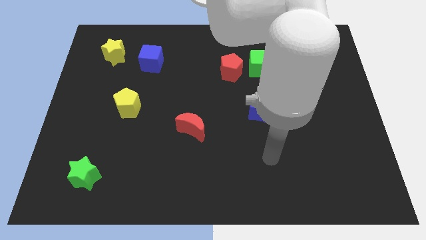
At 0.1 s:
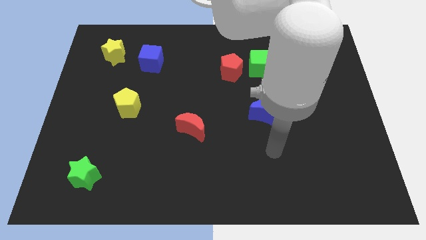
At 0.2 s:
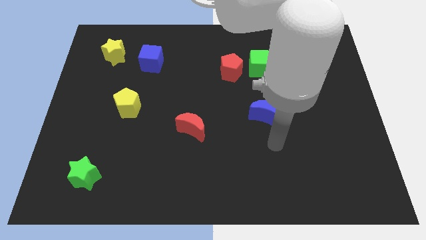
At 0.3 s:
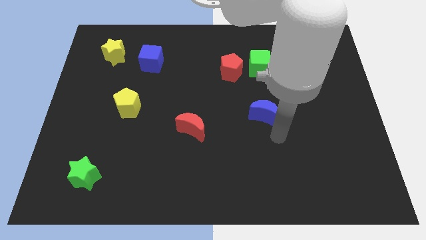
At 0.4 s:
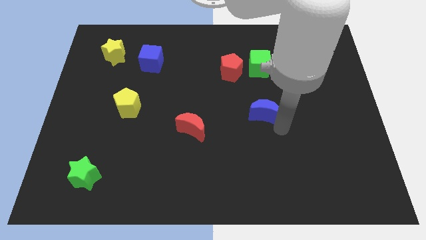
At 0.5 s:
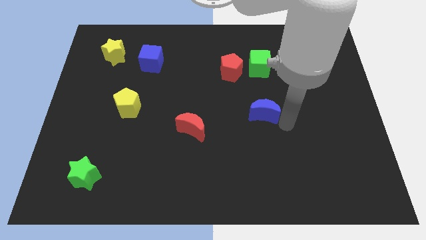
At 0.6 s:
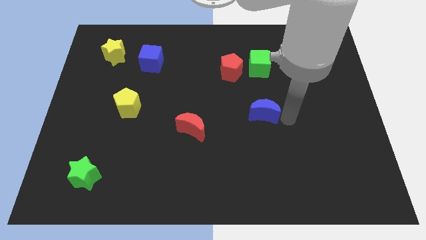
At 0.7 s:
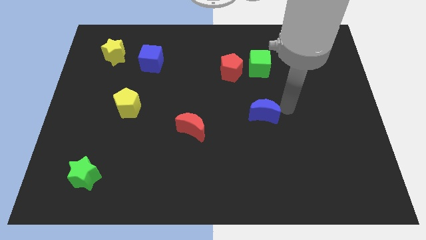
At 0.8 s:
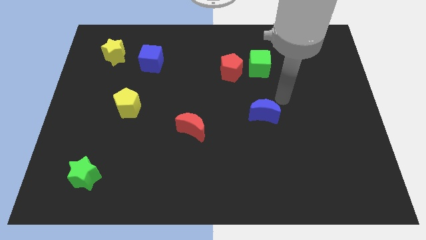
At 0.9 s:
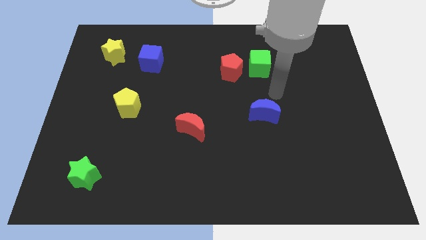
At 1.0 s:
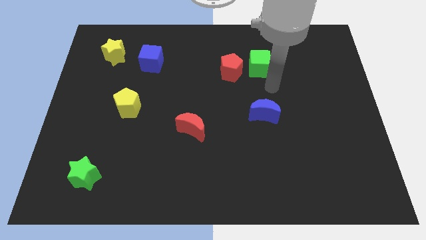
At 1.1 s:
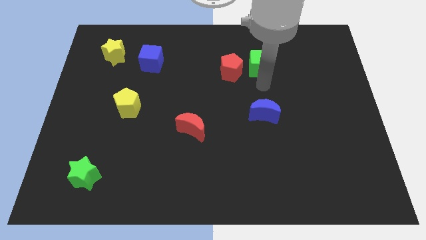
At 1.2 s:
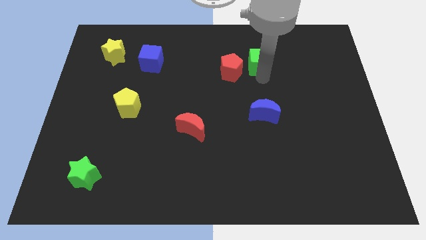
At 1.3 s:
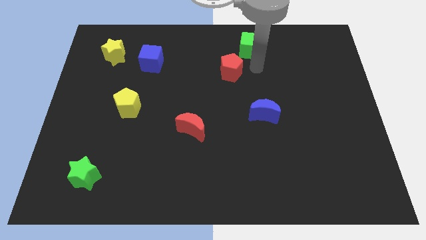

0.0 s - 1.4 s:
separate the red pentagon from the green cube

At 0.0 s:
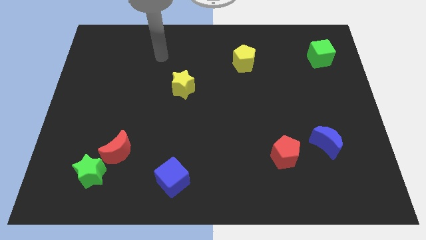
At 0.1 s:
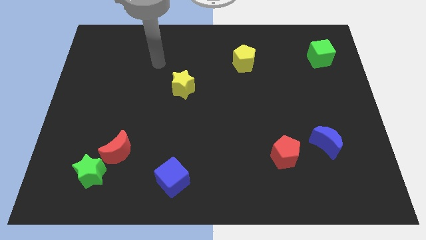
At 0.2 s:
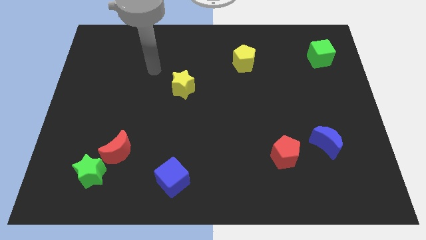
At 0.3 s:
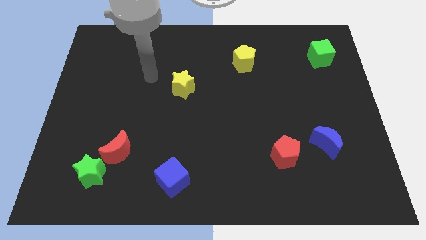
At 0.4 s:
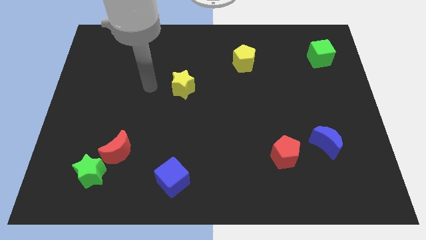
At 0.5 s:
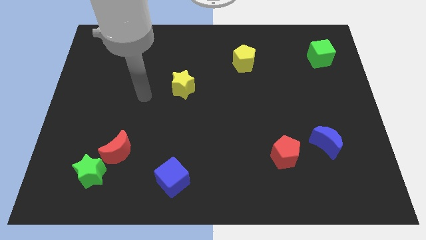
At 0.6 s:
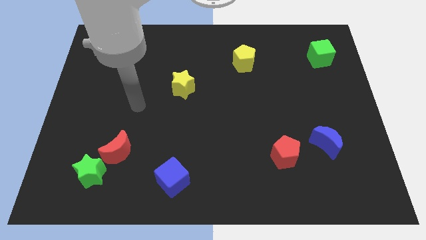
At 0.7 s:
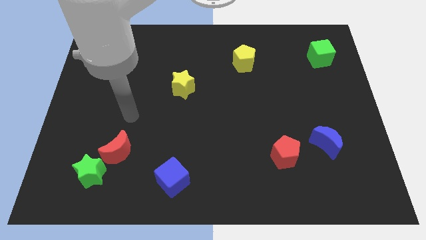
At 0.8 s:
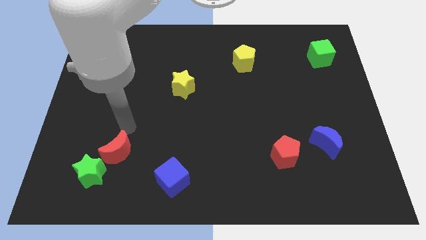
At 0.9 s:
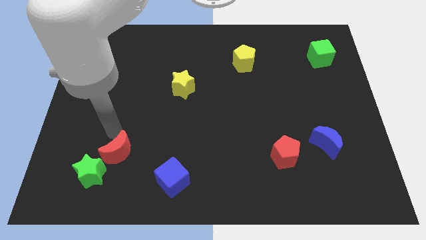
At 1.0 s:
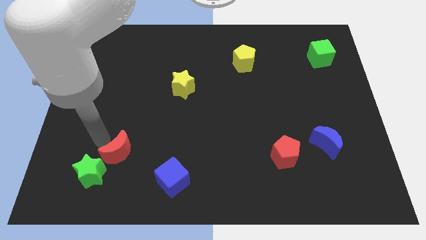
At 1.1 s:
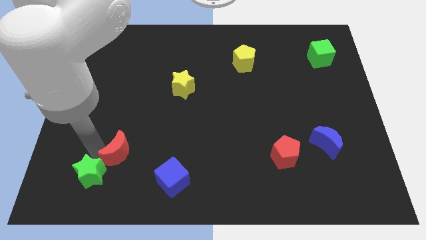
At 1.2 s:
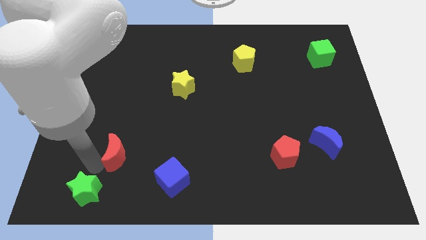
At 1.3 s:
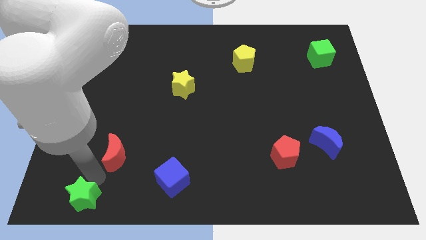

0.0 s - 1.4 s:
move the red moon away from the green star

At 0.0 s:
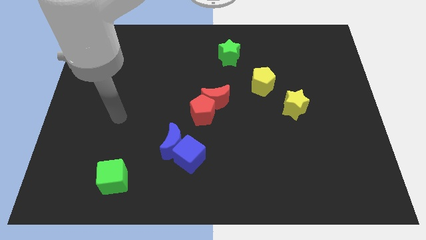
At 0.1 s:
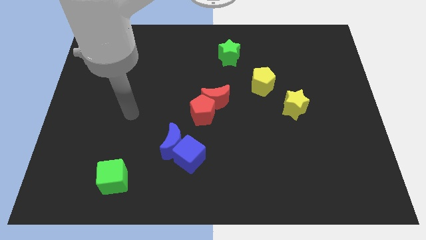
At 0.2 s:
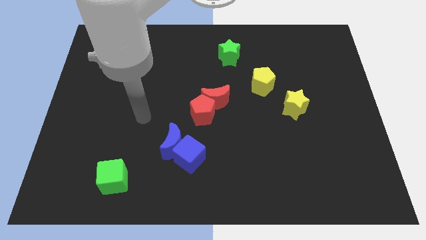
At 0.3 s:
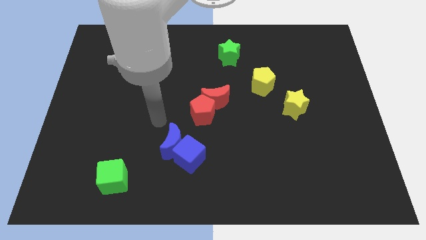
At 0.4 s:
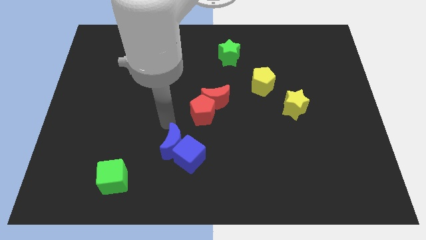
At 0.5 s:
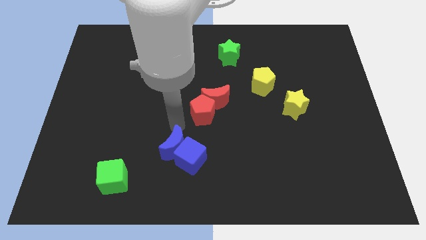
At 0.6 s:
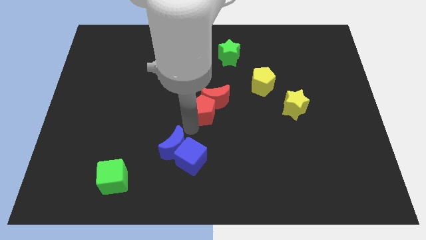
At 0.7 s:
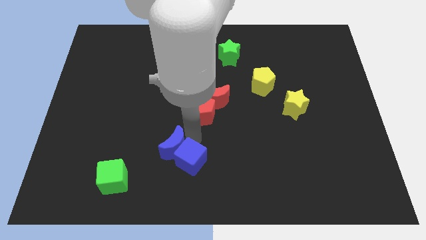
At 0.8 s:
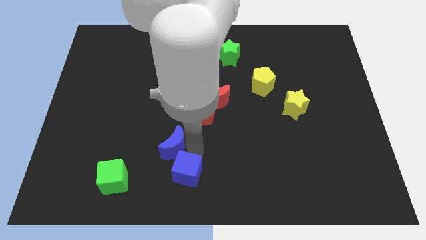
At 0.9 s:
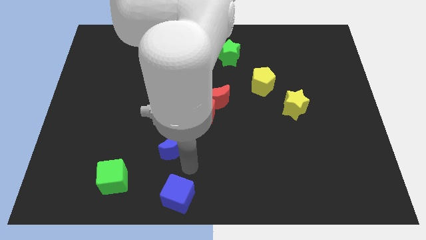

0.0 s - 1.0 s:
separate the blue moon from the blue cube

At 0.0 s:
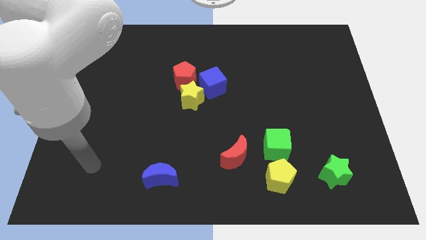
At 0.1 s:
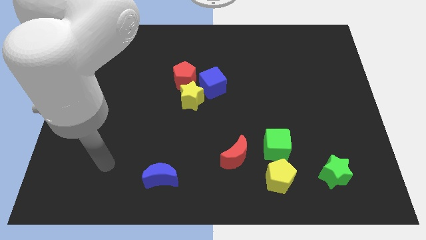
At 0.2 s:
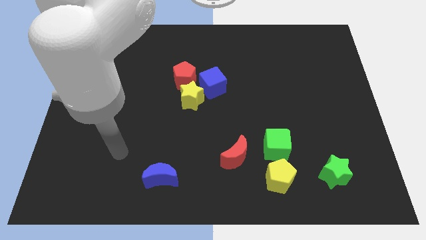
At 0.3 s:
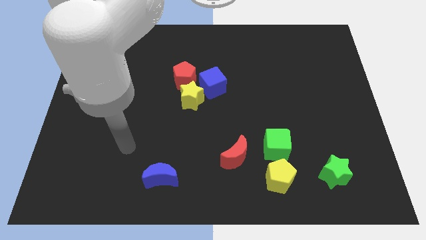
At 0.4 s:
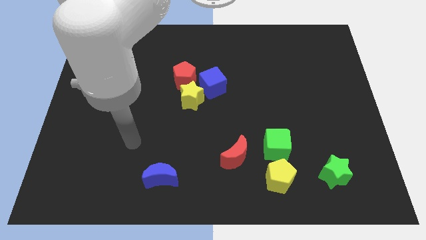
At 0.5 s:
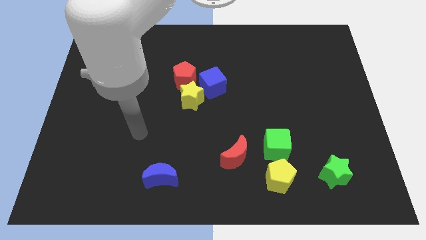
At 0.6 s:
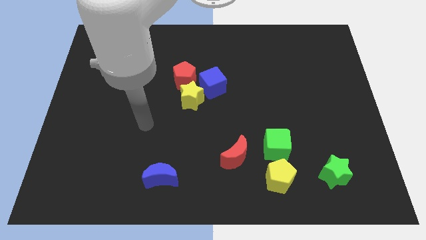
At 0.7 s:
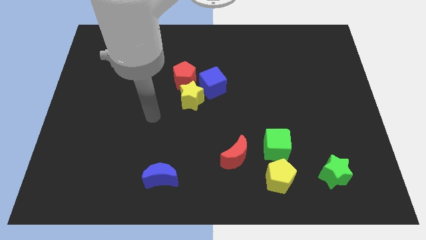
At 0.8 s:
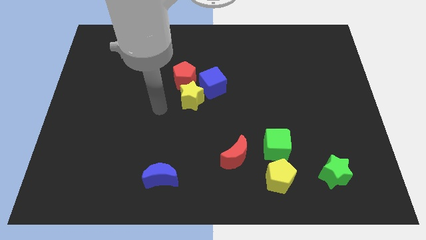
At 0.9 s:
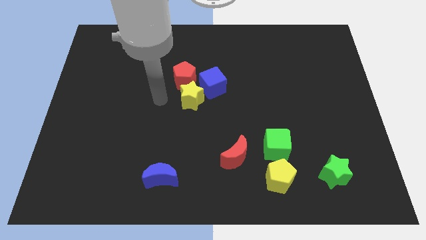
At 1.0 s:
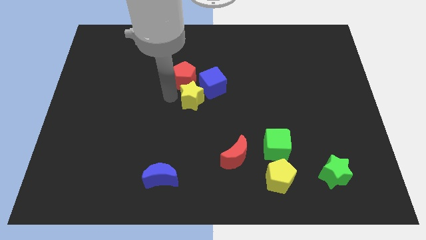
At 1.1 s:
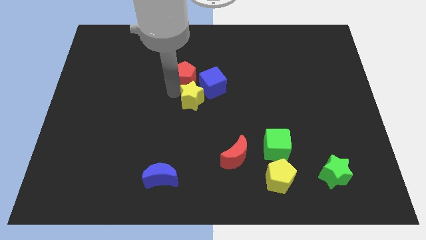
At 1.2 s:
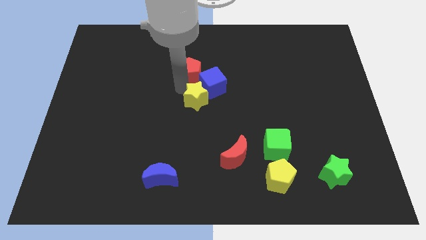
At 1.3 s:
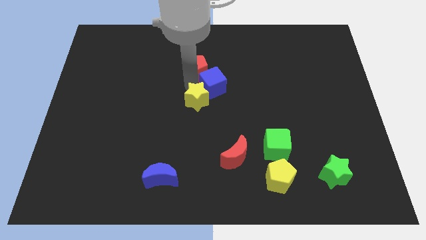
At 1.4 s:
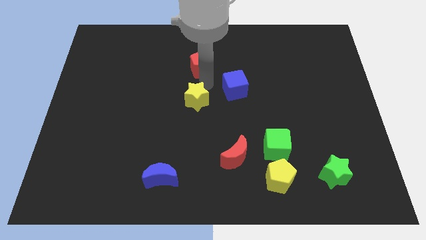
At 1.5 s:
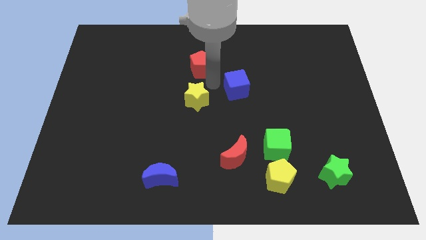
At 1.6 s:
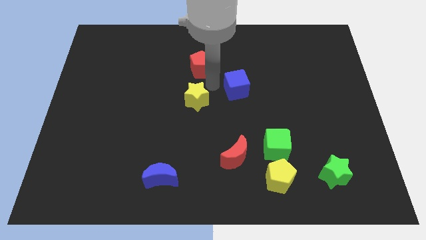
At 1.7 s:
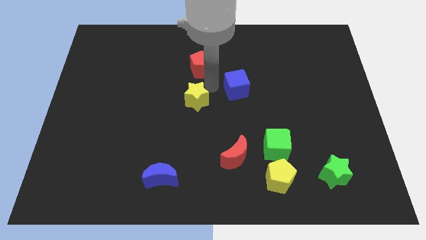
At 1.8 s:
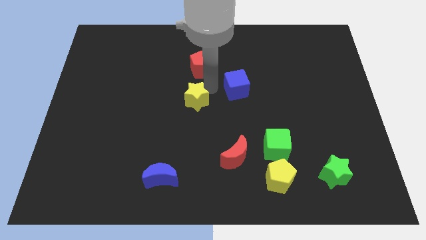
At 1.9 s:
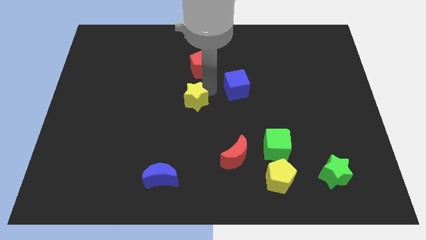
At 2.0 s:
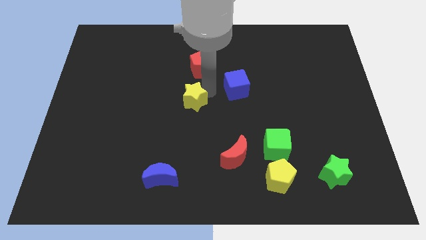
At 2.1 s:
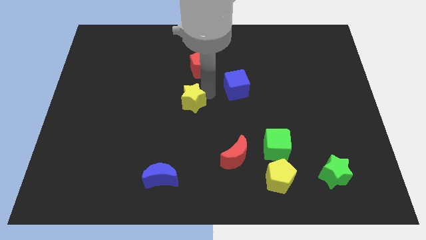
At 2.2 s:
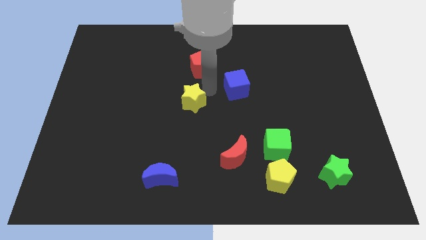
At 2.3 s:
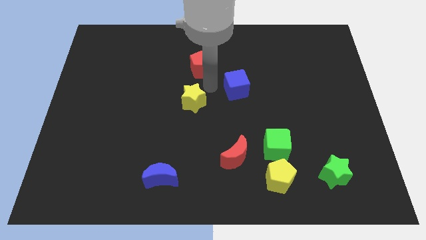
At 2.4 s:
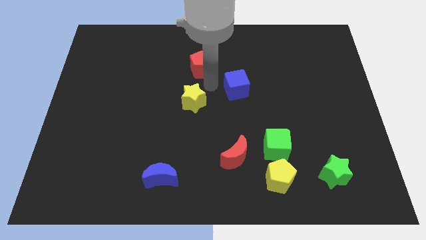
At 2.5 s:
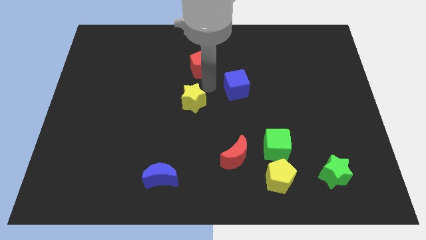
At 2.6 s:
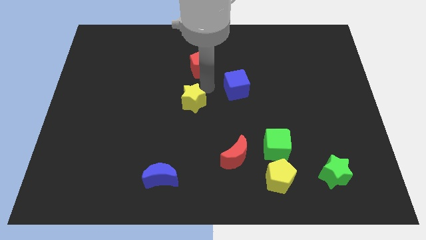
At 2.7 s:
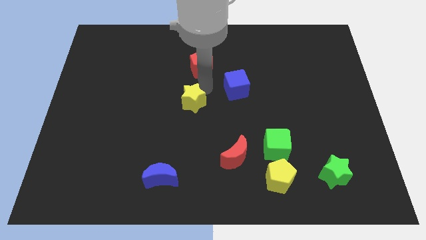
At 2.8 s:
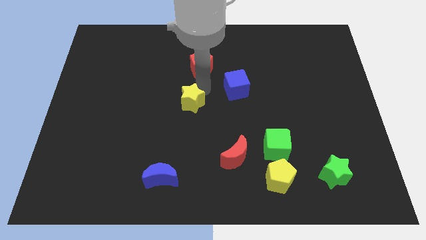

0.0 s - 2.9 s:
move the yellow star away from the blue cube and red pentagon

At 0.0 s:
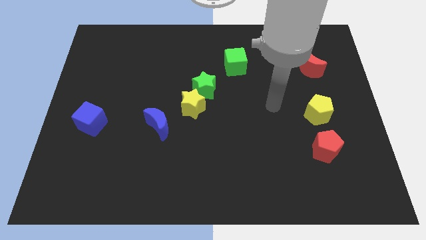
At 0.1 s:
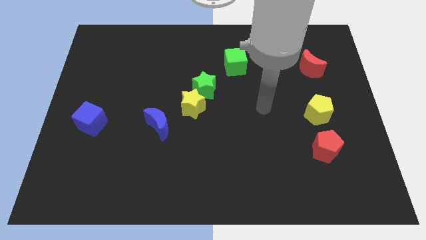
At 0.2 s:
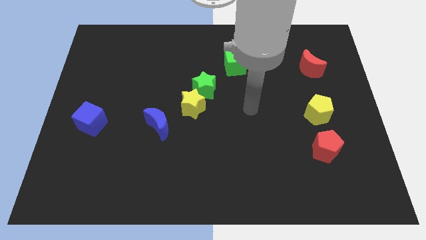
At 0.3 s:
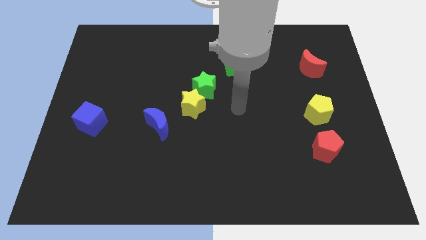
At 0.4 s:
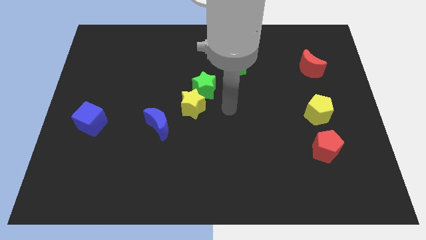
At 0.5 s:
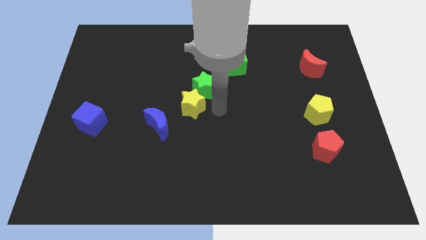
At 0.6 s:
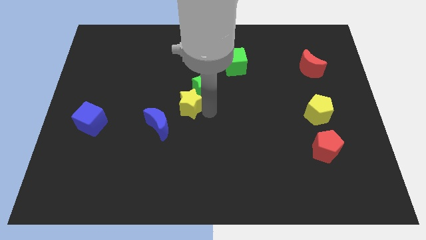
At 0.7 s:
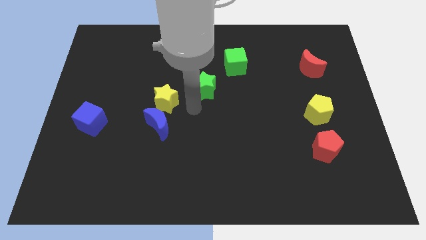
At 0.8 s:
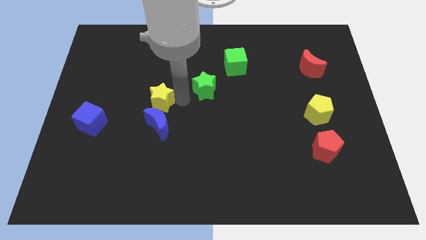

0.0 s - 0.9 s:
pull the green star apart from the yellow star

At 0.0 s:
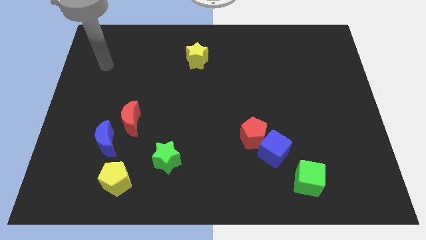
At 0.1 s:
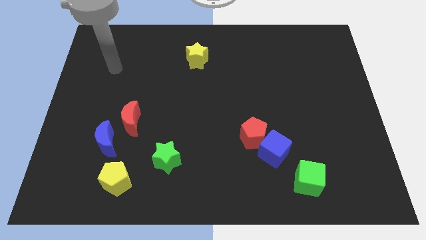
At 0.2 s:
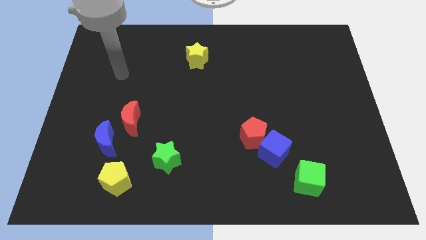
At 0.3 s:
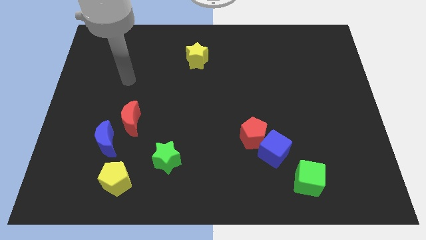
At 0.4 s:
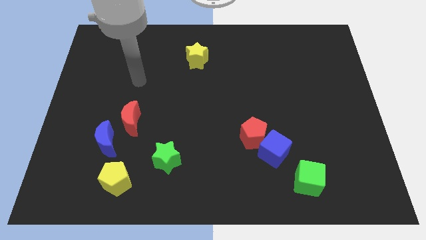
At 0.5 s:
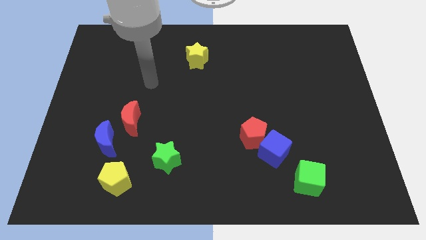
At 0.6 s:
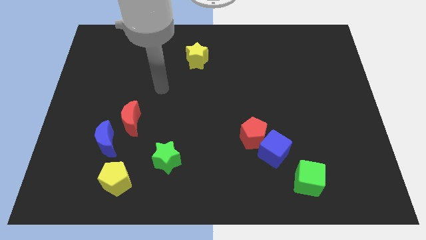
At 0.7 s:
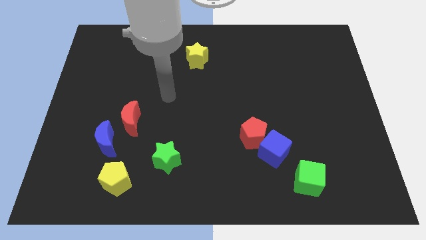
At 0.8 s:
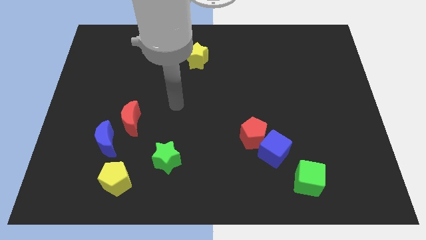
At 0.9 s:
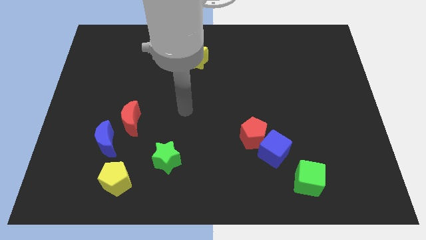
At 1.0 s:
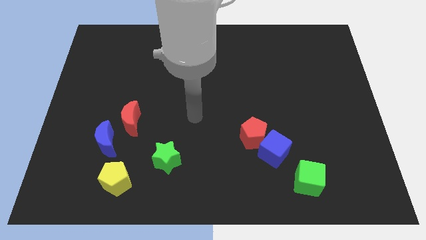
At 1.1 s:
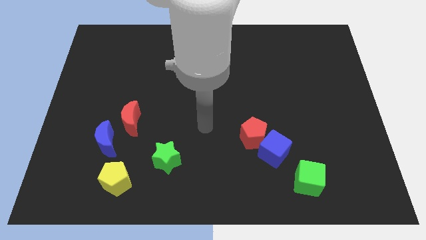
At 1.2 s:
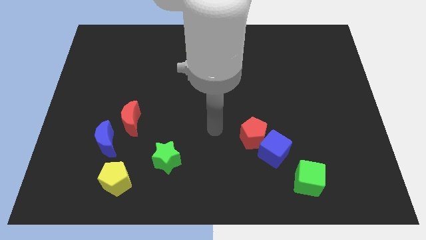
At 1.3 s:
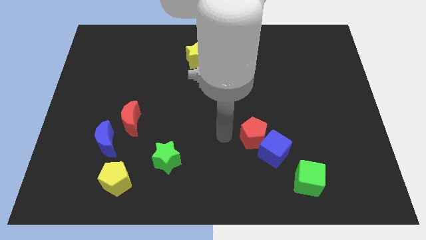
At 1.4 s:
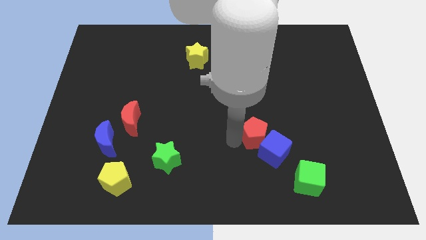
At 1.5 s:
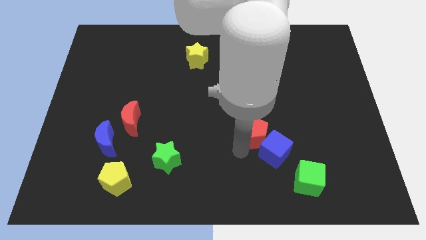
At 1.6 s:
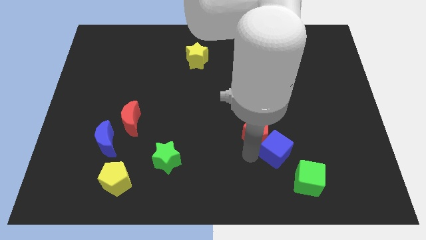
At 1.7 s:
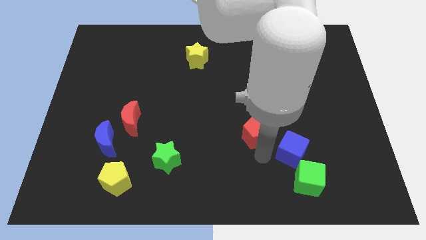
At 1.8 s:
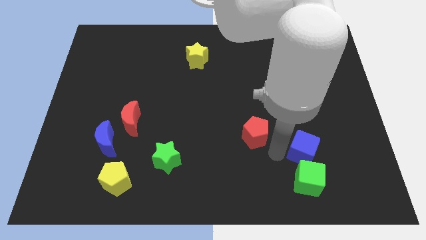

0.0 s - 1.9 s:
move the red pentagon away from the blue cube
